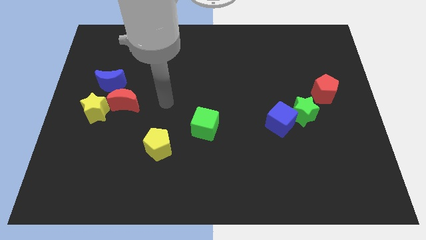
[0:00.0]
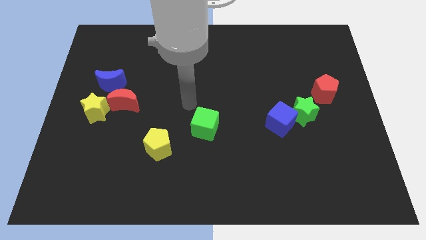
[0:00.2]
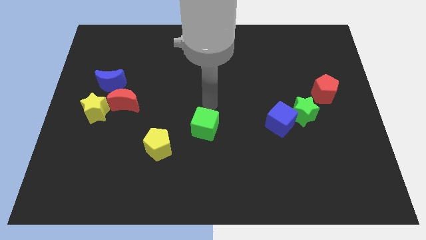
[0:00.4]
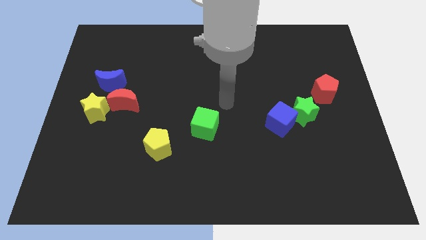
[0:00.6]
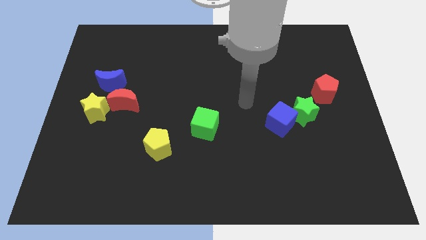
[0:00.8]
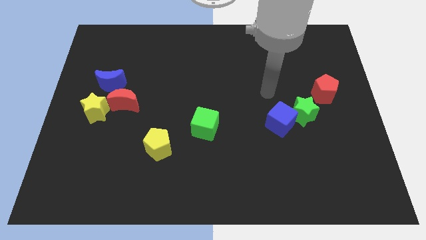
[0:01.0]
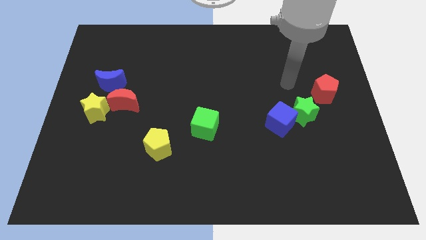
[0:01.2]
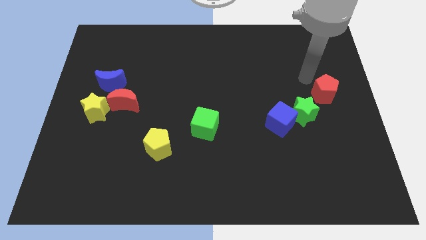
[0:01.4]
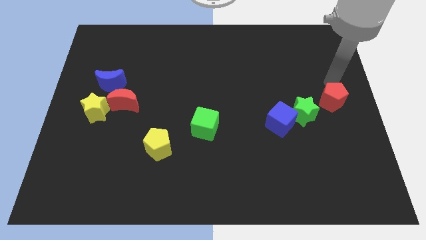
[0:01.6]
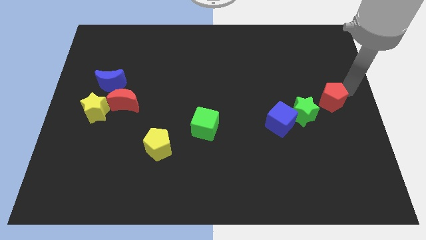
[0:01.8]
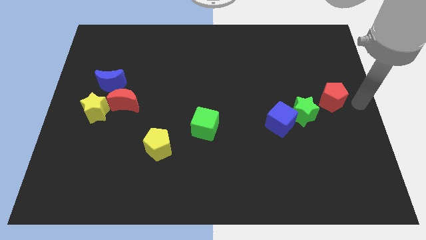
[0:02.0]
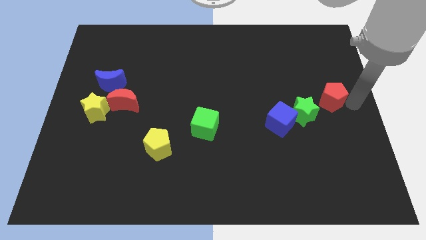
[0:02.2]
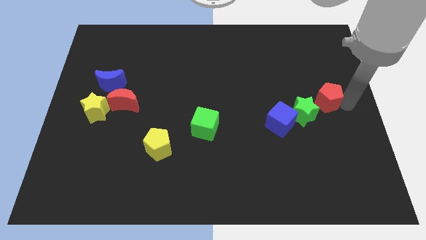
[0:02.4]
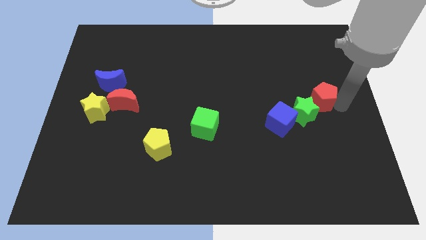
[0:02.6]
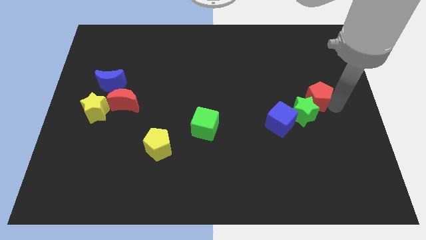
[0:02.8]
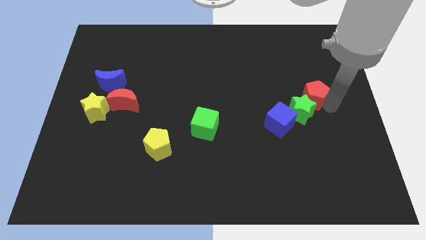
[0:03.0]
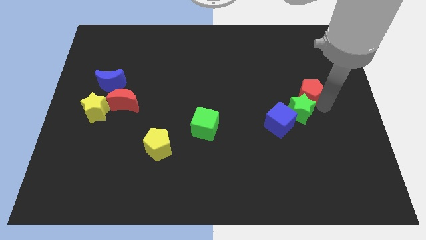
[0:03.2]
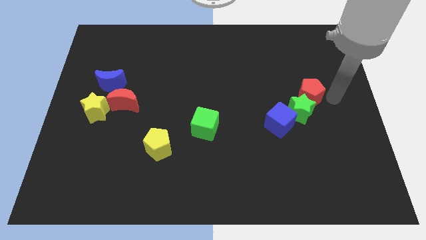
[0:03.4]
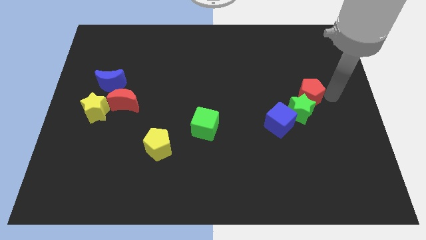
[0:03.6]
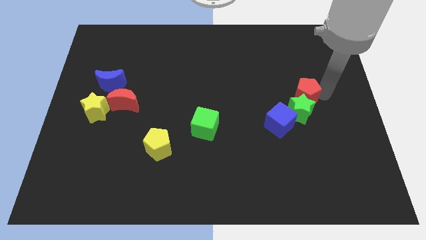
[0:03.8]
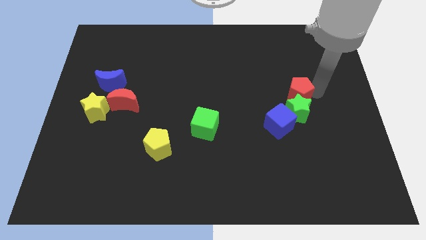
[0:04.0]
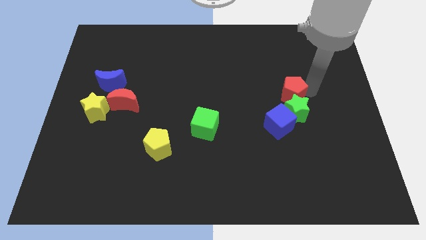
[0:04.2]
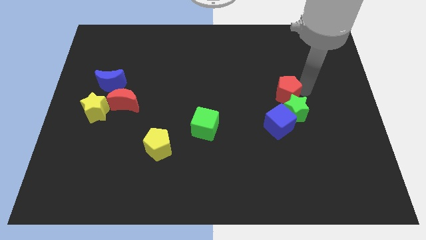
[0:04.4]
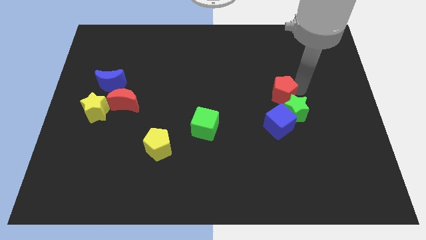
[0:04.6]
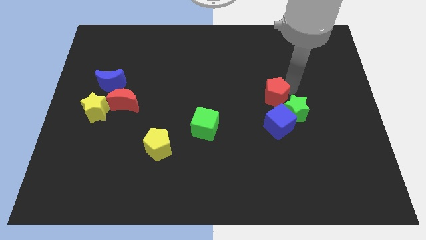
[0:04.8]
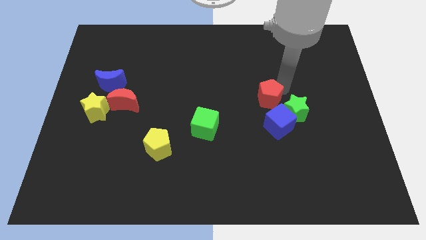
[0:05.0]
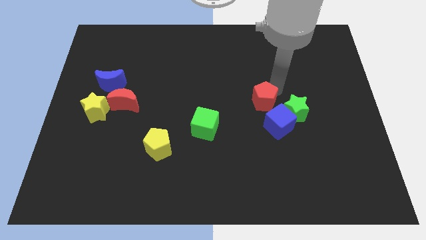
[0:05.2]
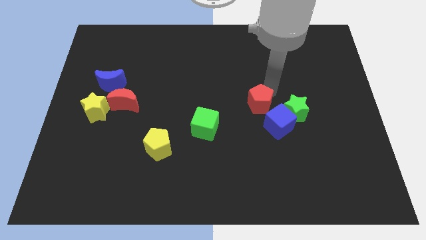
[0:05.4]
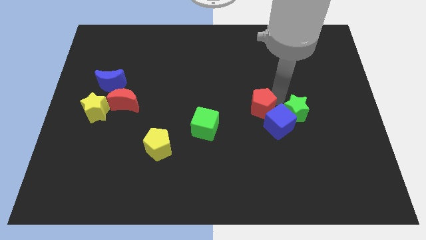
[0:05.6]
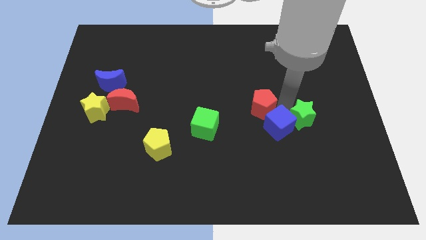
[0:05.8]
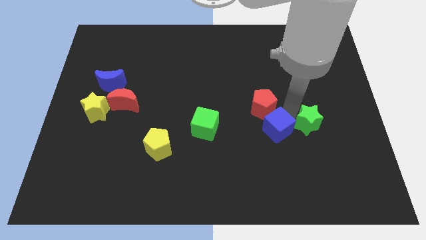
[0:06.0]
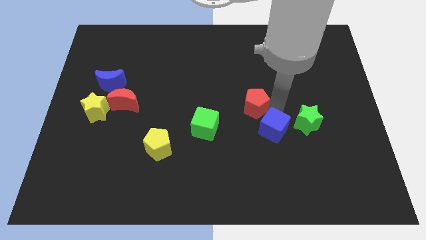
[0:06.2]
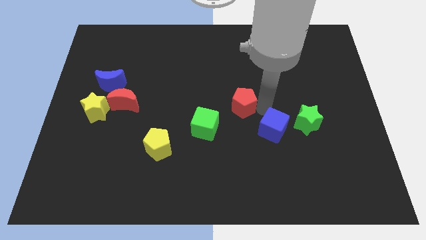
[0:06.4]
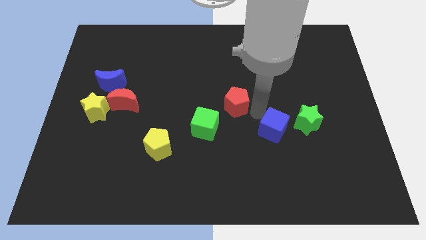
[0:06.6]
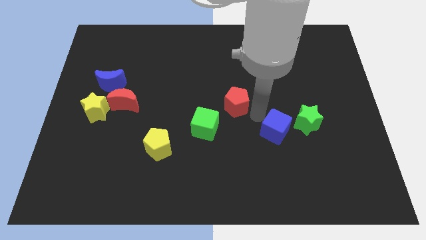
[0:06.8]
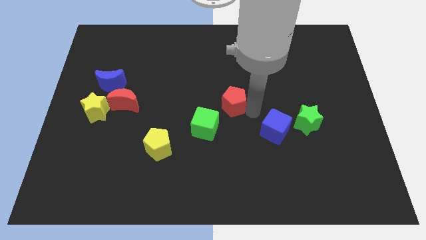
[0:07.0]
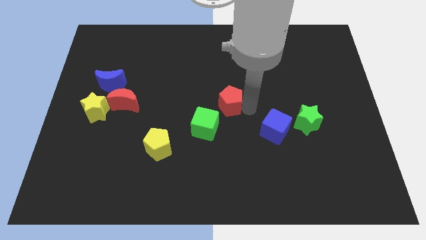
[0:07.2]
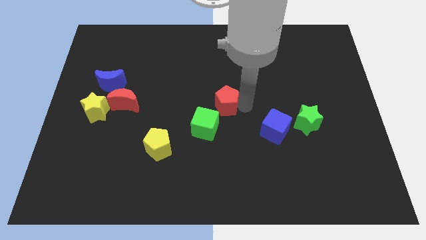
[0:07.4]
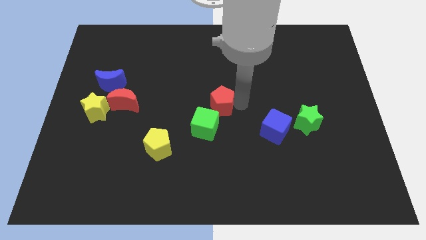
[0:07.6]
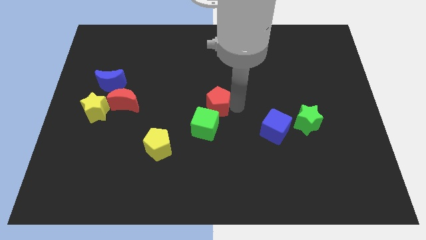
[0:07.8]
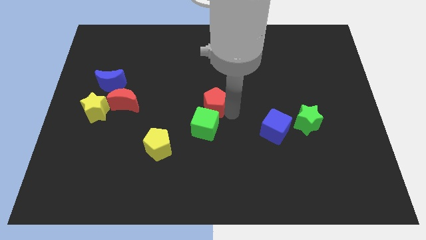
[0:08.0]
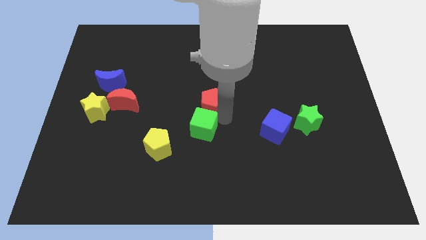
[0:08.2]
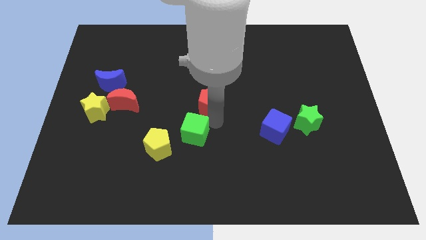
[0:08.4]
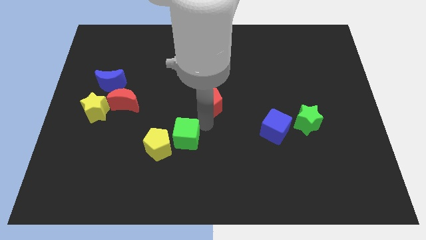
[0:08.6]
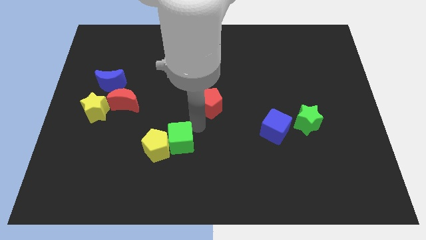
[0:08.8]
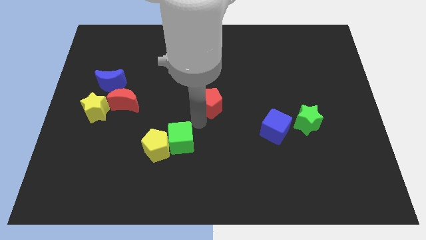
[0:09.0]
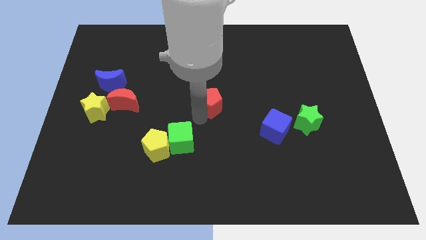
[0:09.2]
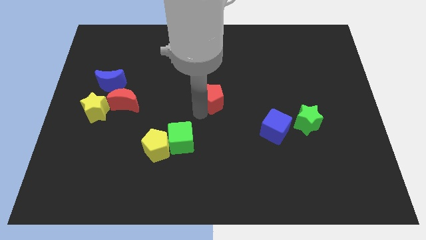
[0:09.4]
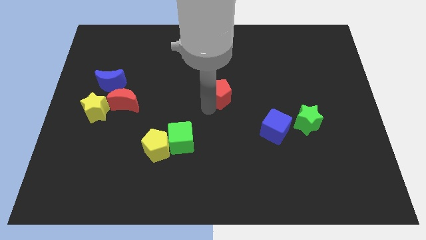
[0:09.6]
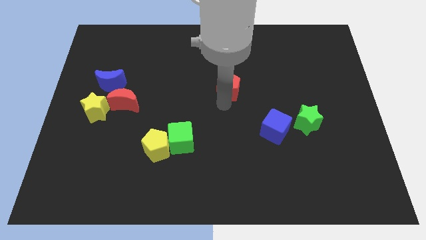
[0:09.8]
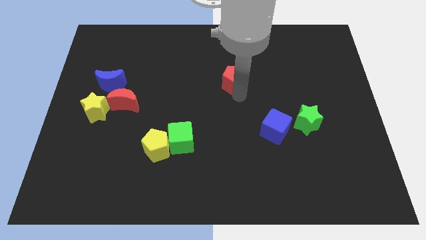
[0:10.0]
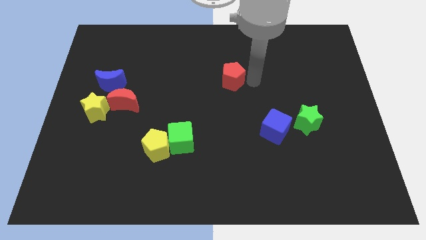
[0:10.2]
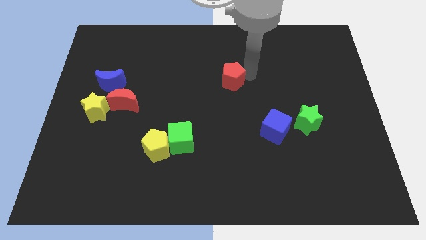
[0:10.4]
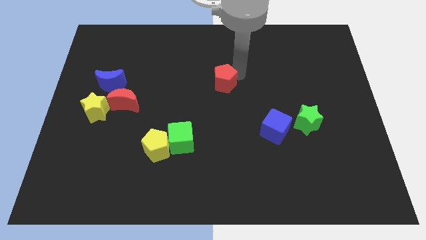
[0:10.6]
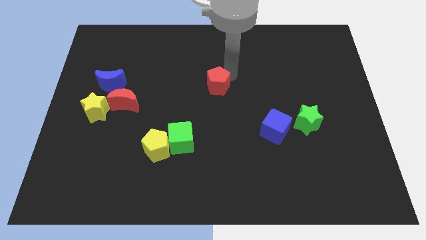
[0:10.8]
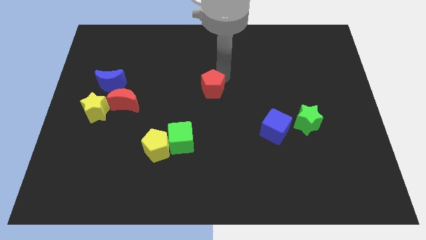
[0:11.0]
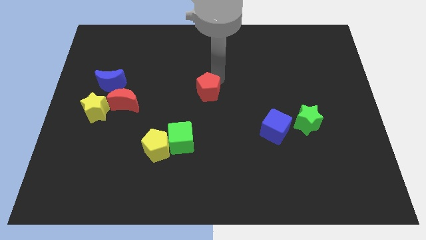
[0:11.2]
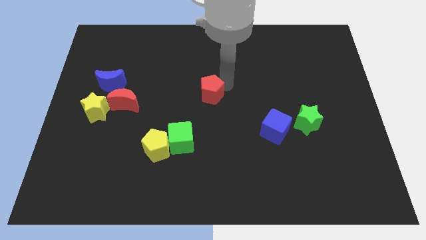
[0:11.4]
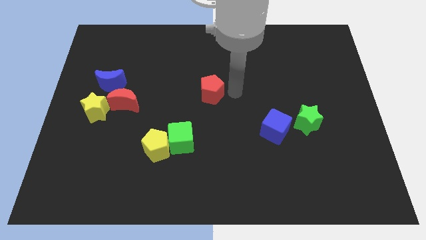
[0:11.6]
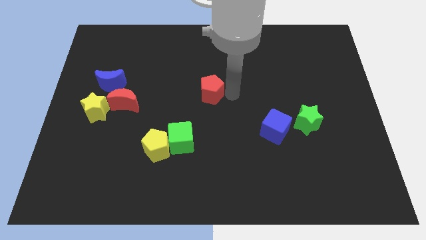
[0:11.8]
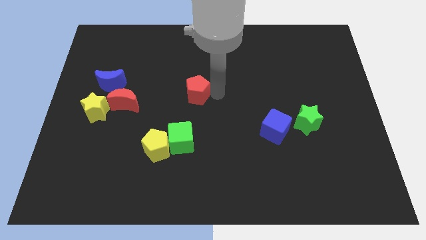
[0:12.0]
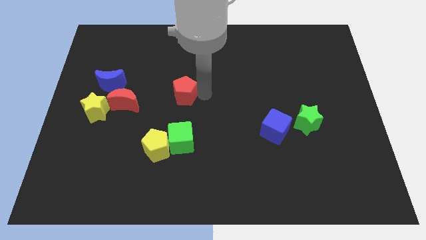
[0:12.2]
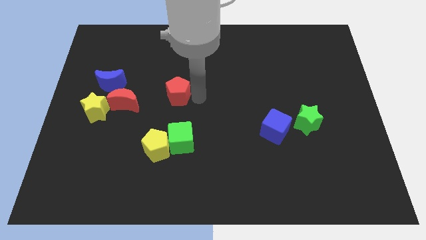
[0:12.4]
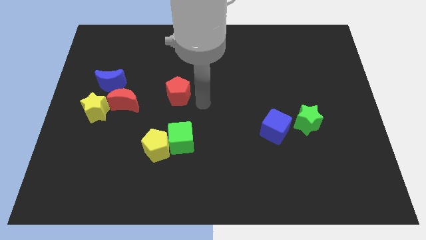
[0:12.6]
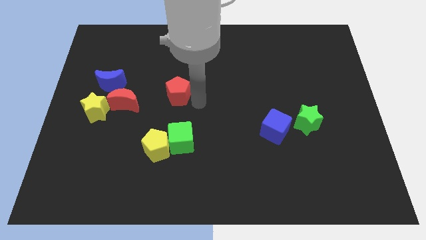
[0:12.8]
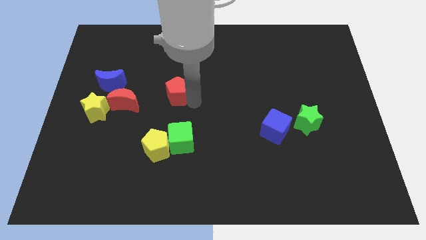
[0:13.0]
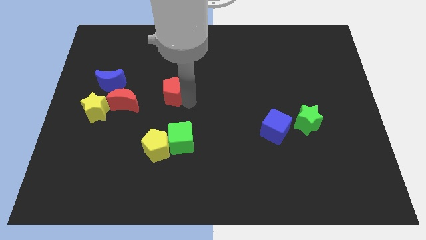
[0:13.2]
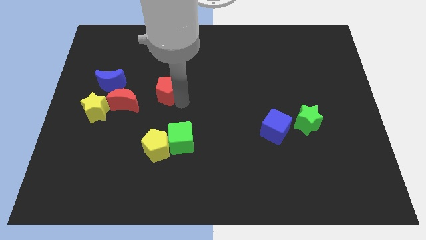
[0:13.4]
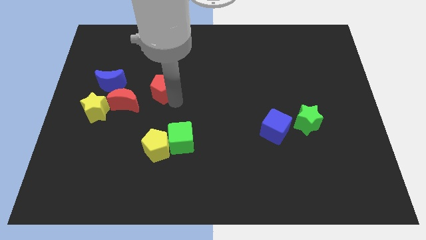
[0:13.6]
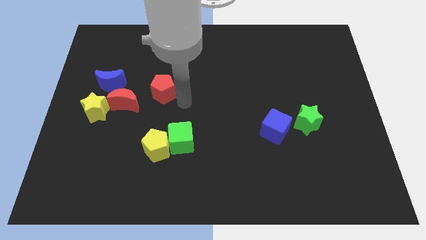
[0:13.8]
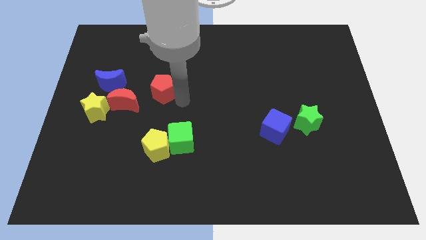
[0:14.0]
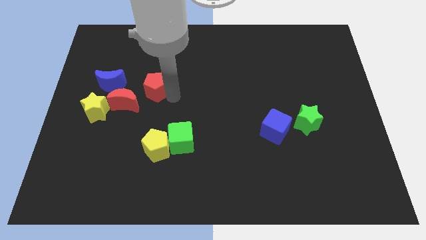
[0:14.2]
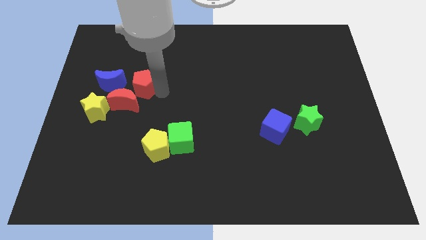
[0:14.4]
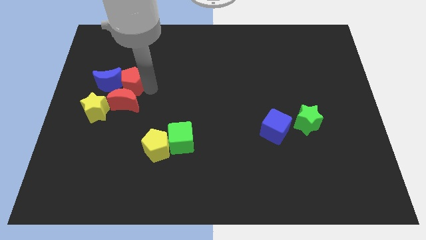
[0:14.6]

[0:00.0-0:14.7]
move the red pentagon towards the blue moon
